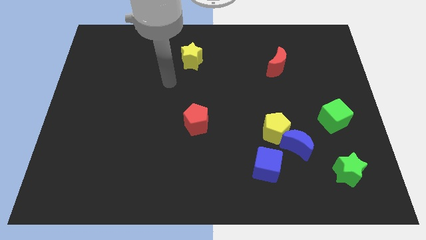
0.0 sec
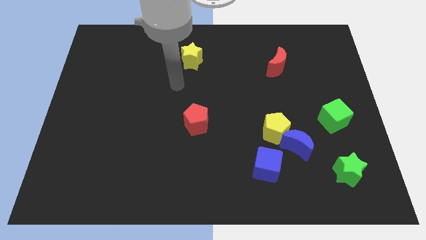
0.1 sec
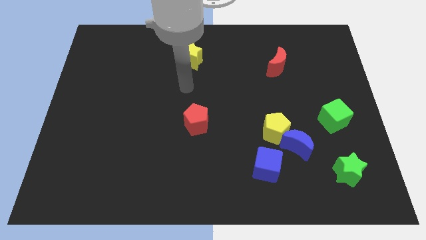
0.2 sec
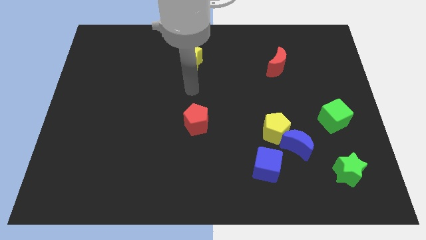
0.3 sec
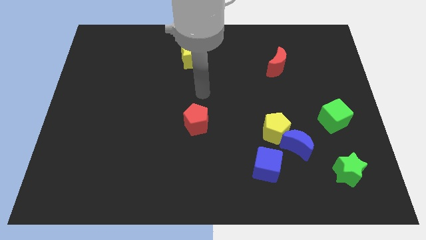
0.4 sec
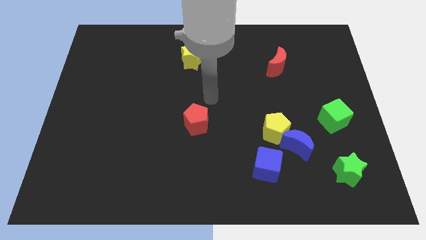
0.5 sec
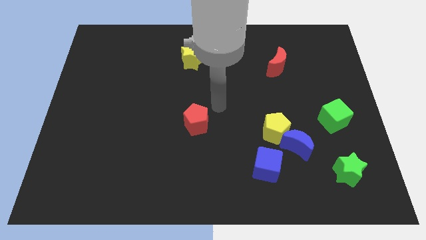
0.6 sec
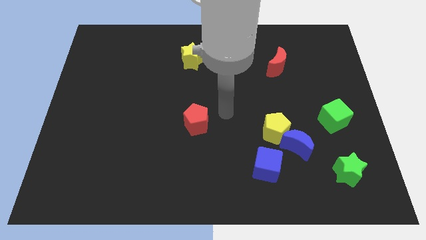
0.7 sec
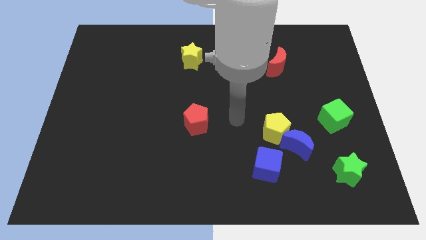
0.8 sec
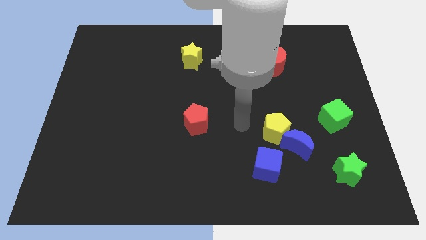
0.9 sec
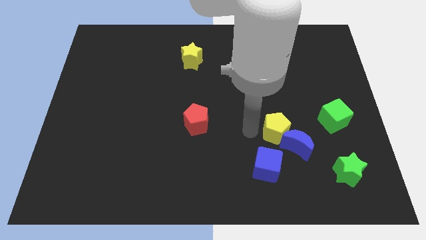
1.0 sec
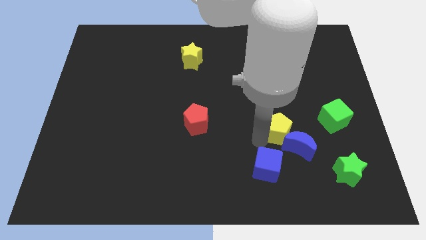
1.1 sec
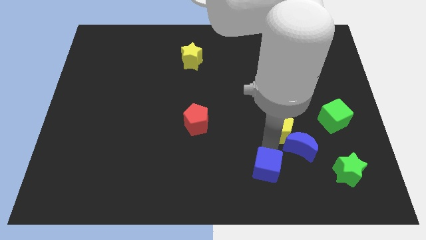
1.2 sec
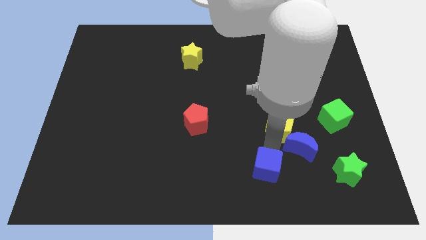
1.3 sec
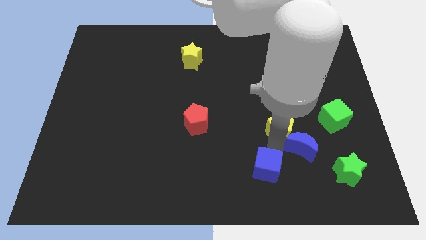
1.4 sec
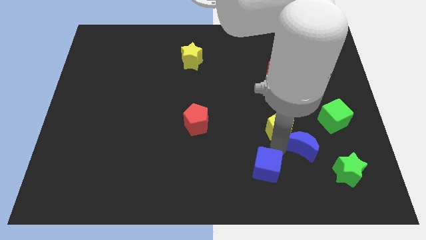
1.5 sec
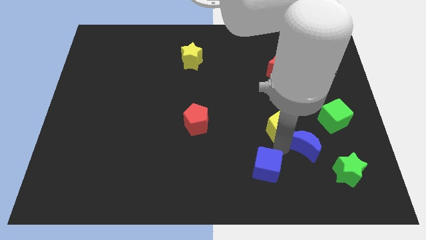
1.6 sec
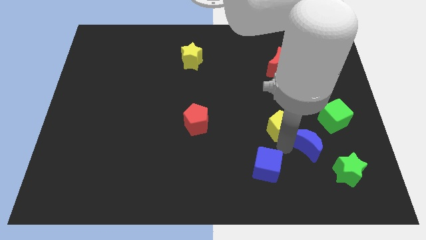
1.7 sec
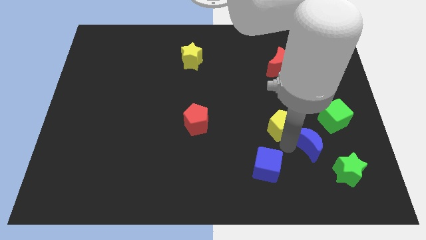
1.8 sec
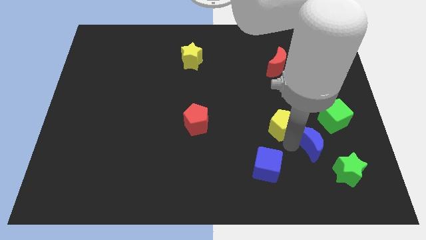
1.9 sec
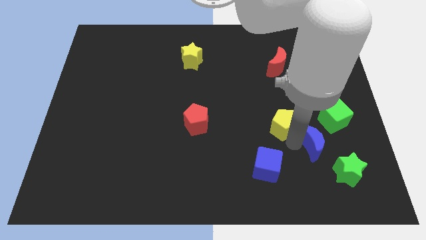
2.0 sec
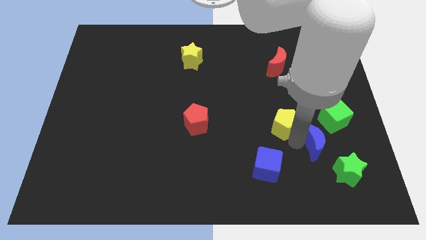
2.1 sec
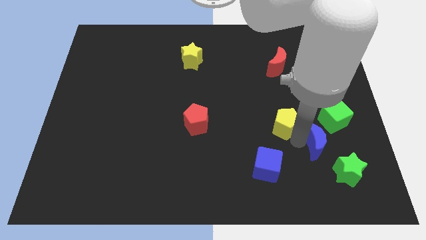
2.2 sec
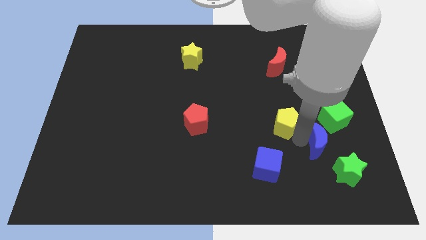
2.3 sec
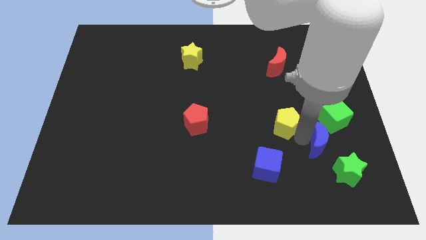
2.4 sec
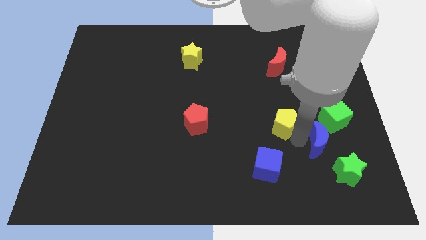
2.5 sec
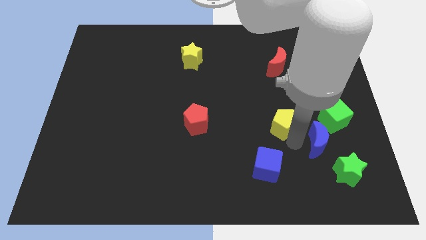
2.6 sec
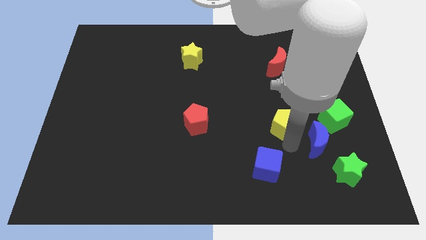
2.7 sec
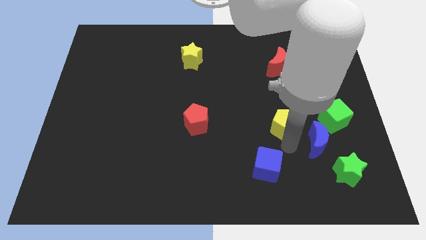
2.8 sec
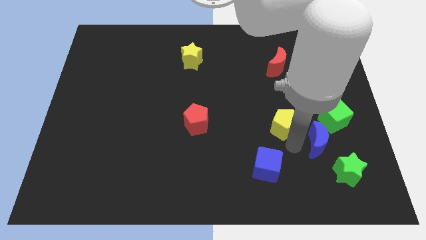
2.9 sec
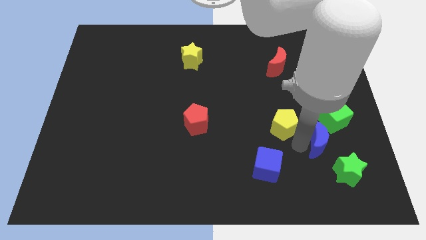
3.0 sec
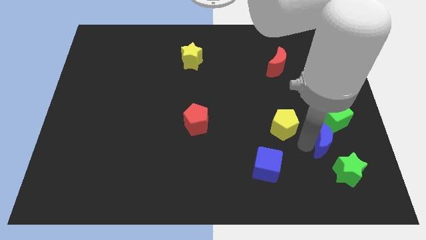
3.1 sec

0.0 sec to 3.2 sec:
separate the blue moon from the yellow pentagon and blue cube

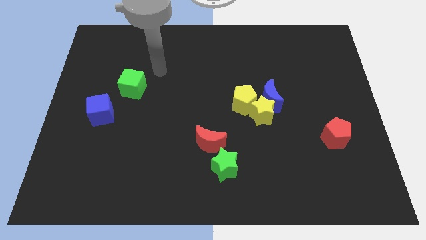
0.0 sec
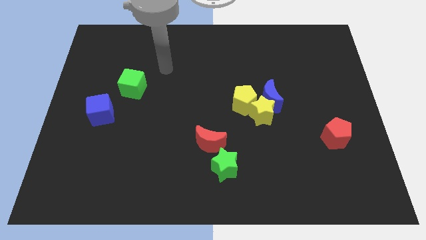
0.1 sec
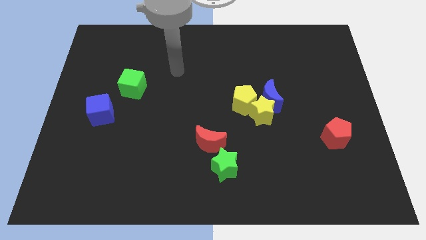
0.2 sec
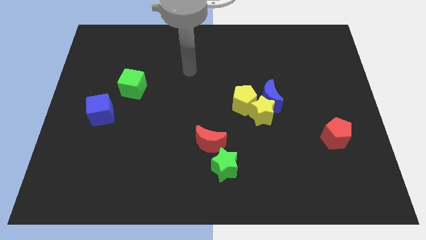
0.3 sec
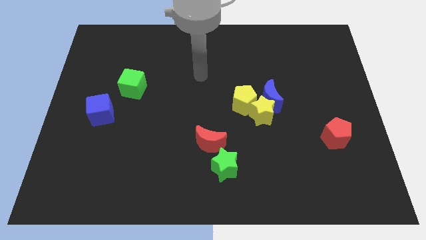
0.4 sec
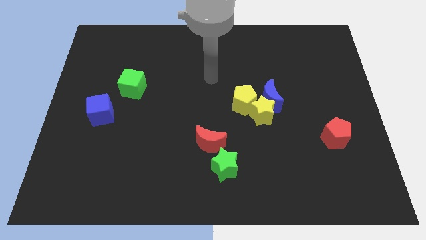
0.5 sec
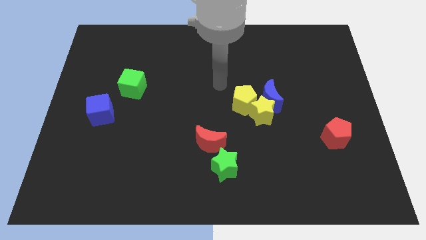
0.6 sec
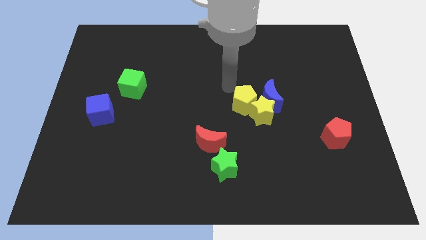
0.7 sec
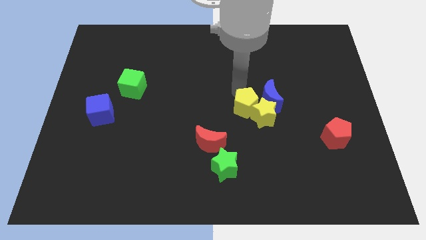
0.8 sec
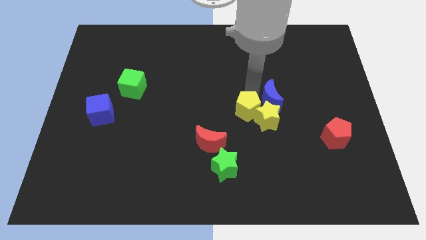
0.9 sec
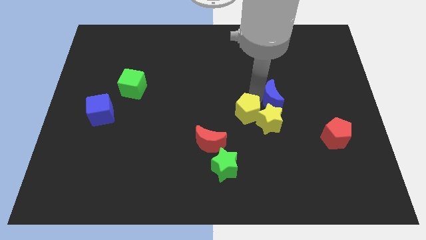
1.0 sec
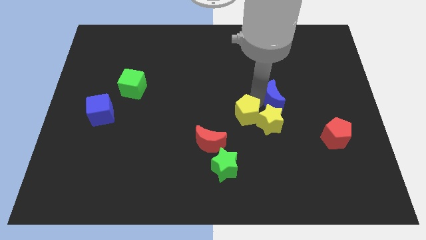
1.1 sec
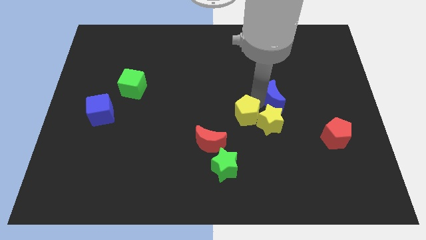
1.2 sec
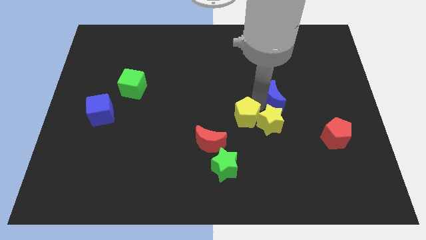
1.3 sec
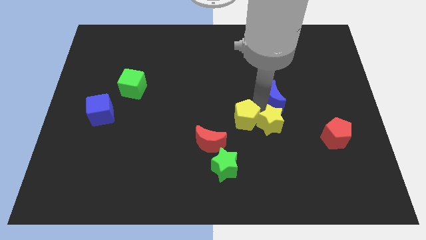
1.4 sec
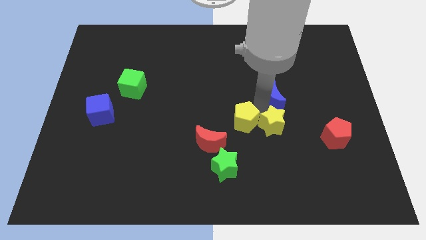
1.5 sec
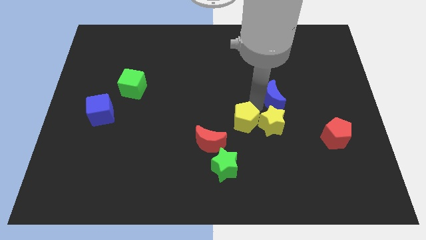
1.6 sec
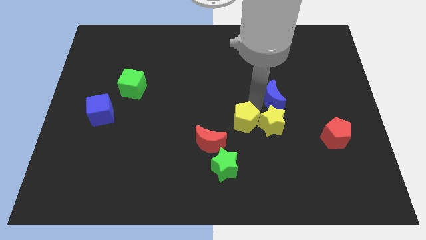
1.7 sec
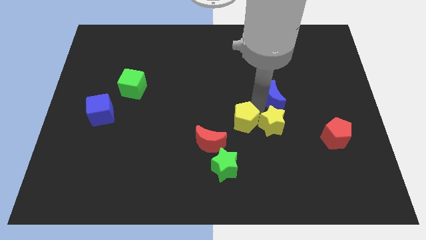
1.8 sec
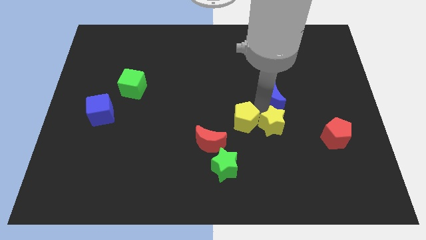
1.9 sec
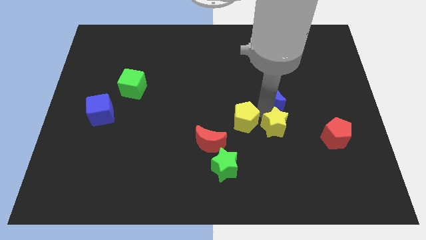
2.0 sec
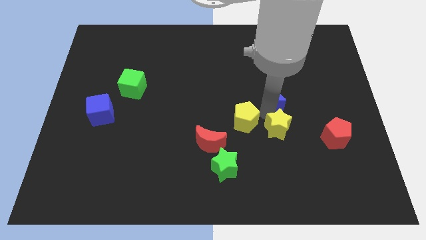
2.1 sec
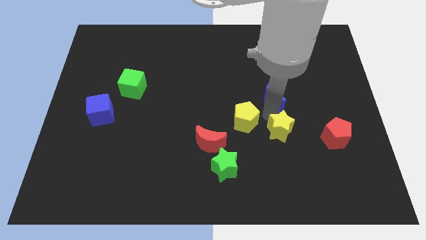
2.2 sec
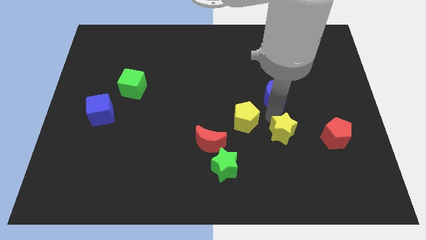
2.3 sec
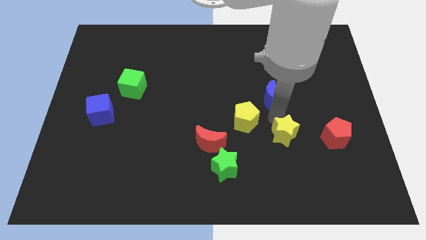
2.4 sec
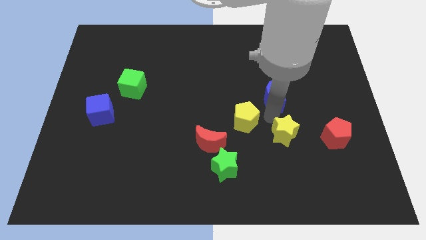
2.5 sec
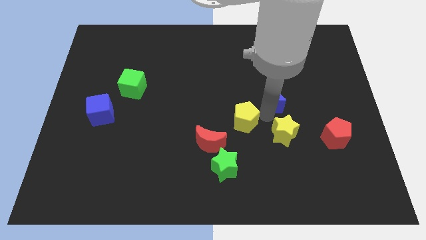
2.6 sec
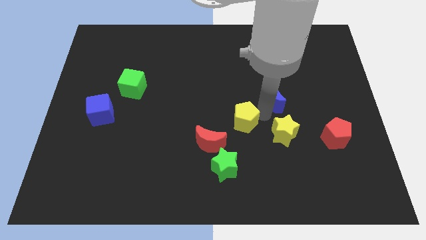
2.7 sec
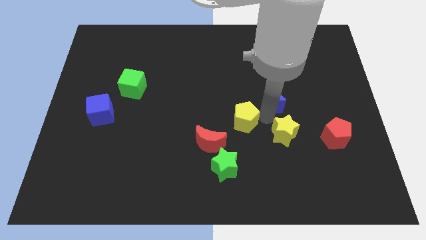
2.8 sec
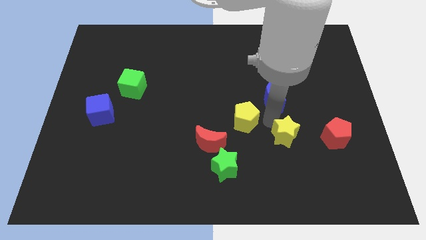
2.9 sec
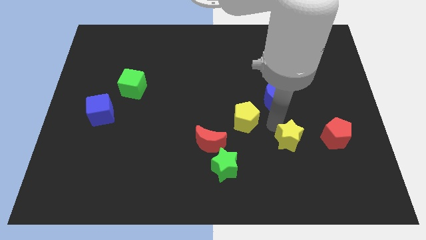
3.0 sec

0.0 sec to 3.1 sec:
separate the yellow star from the blue moon and yellow pentagon

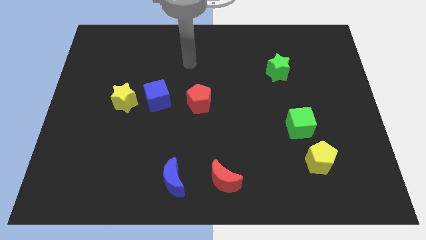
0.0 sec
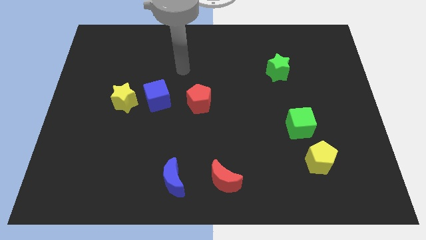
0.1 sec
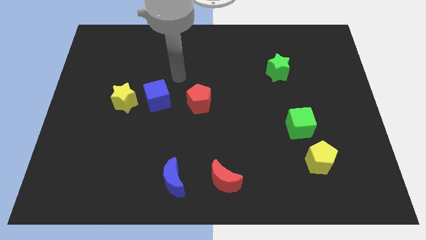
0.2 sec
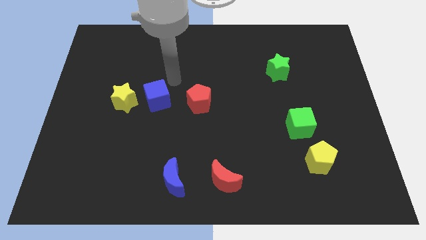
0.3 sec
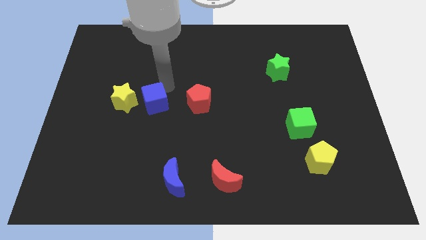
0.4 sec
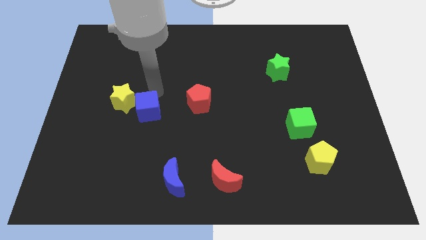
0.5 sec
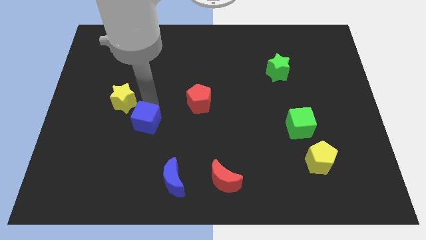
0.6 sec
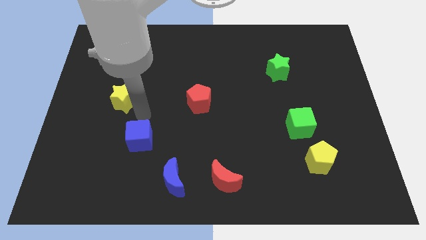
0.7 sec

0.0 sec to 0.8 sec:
move the yellow star away from the blue cube

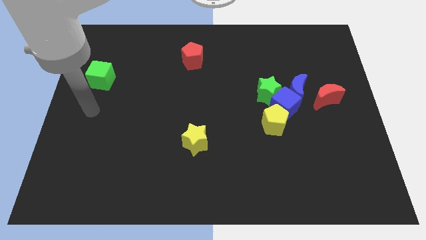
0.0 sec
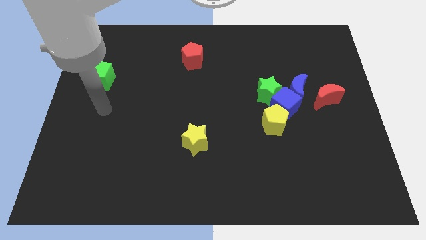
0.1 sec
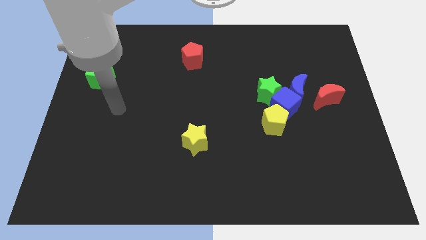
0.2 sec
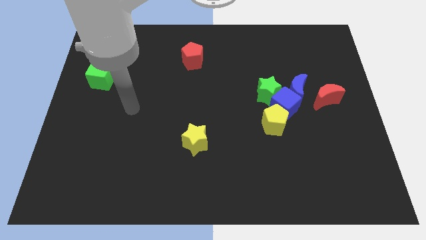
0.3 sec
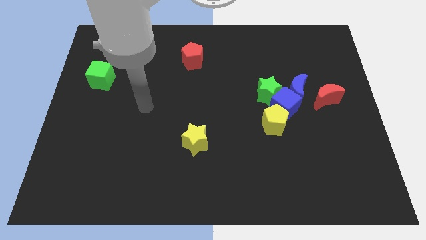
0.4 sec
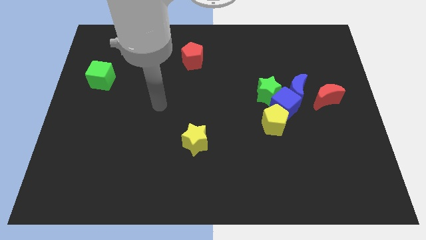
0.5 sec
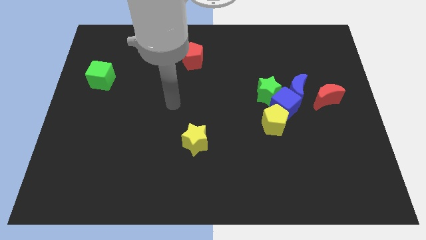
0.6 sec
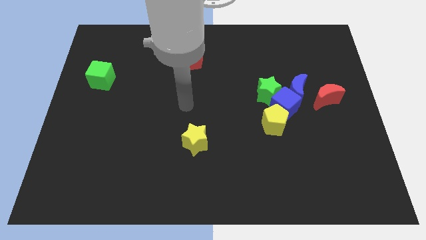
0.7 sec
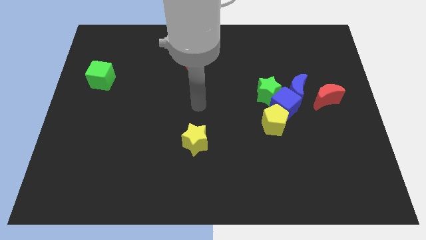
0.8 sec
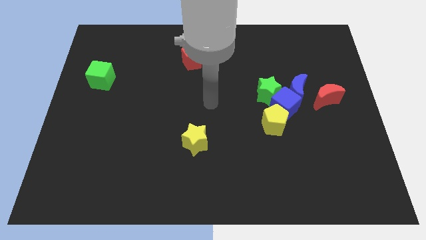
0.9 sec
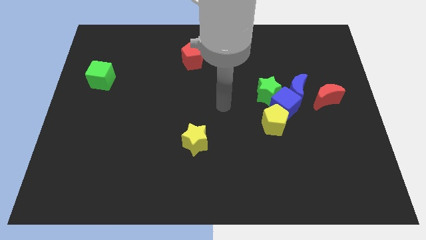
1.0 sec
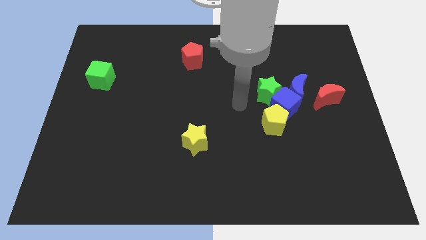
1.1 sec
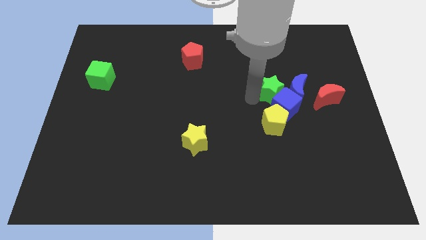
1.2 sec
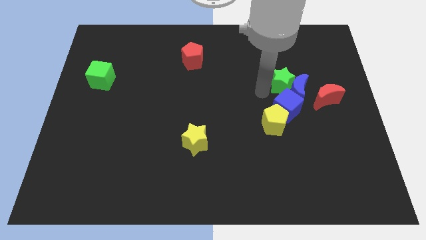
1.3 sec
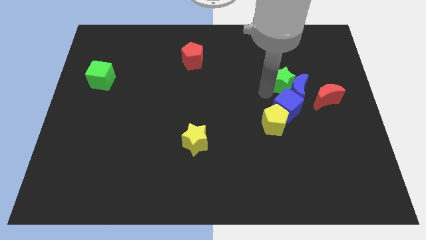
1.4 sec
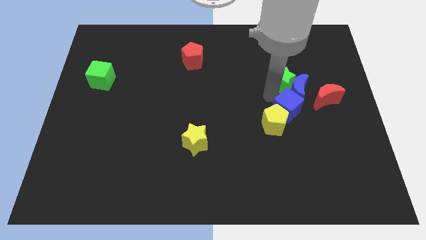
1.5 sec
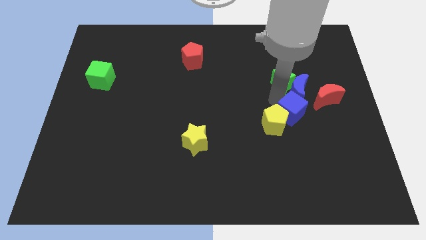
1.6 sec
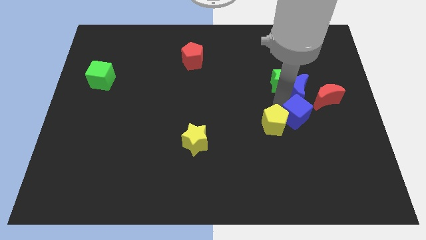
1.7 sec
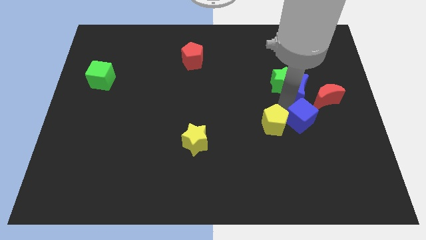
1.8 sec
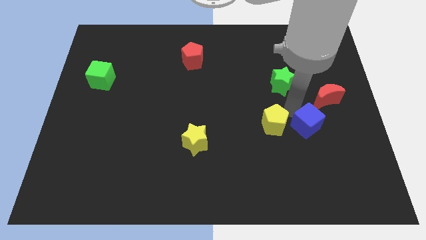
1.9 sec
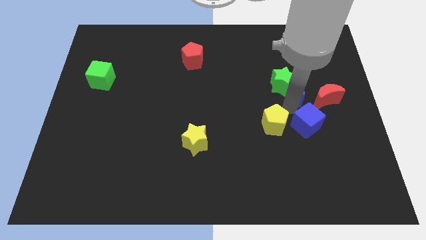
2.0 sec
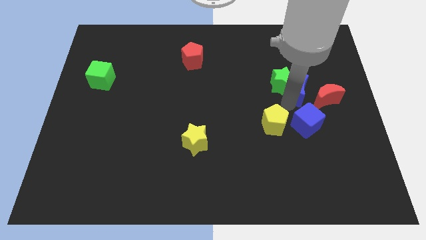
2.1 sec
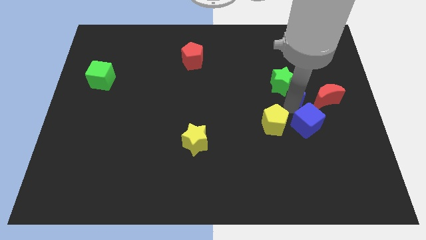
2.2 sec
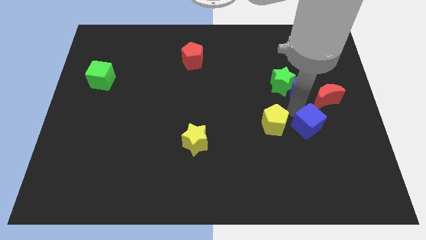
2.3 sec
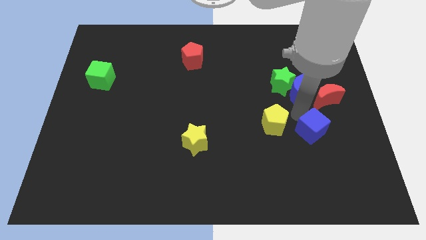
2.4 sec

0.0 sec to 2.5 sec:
separate the blue cube from the clump
